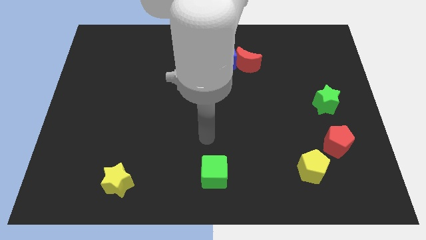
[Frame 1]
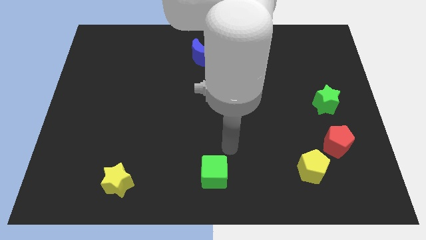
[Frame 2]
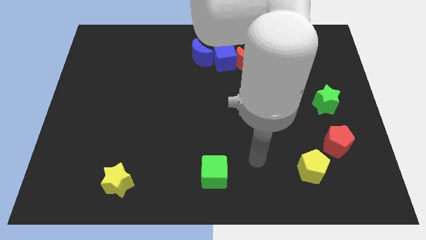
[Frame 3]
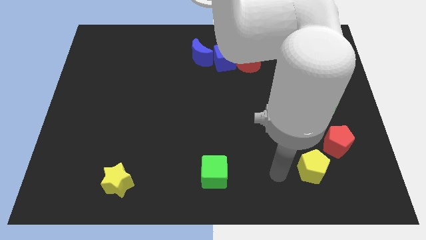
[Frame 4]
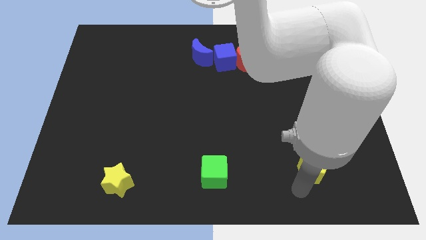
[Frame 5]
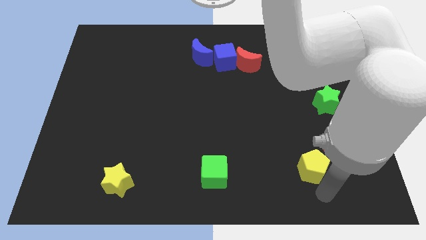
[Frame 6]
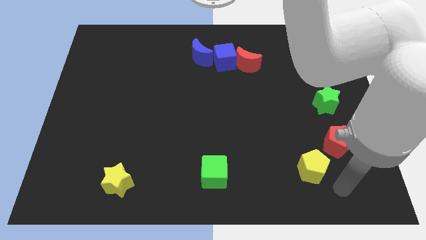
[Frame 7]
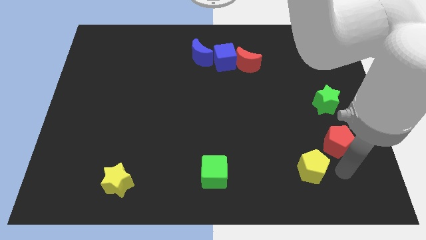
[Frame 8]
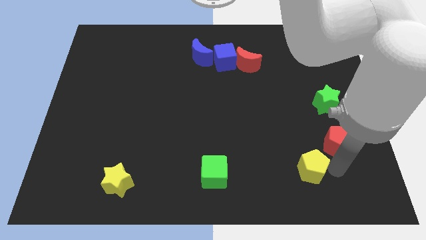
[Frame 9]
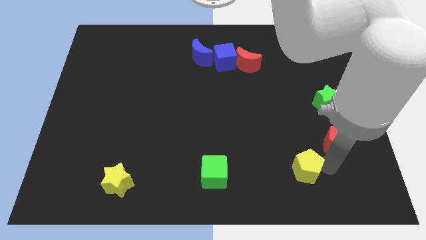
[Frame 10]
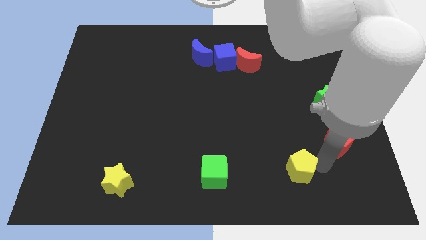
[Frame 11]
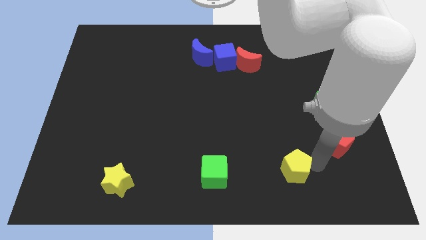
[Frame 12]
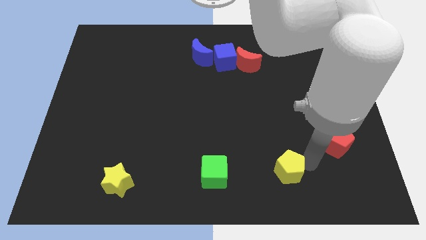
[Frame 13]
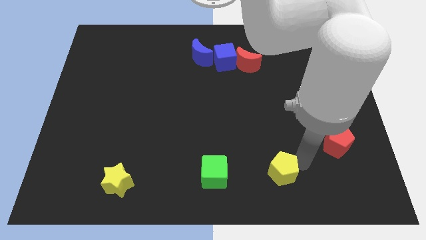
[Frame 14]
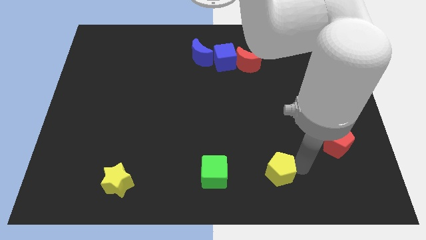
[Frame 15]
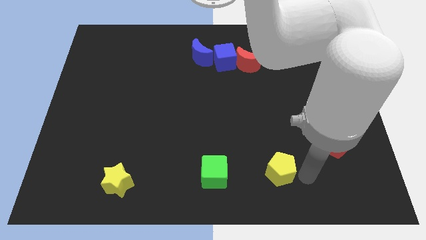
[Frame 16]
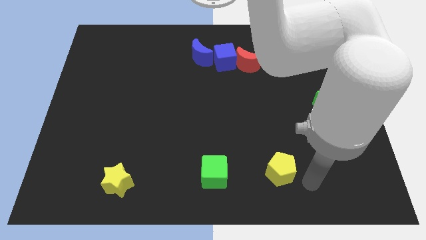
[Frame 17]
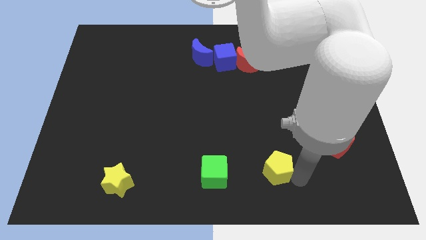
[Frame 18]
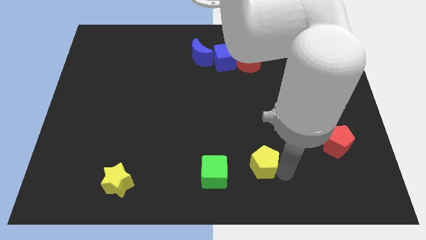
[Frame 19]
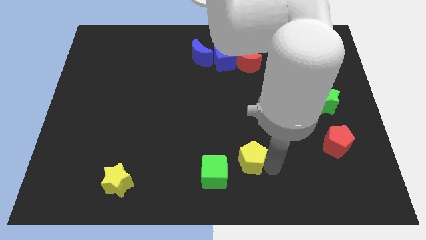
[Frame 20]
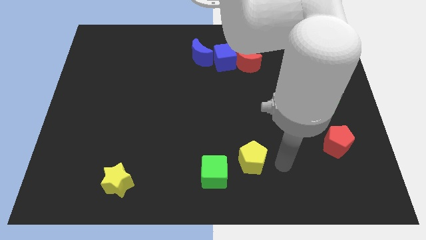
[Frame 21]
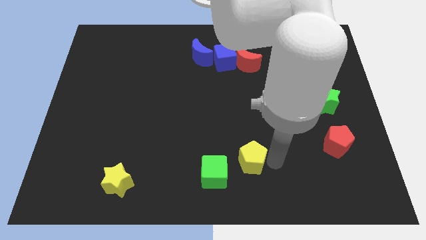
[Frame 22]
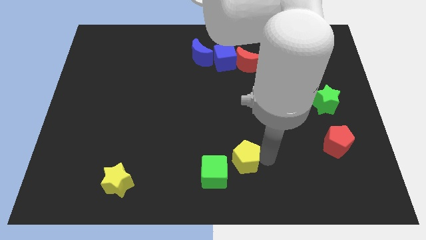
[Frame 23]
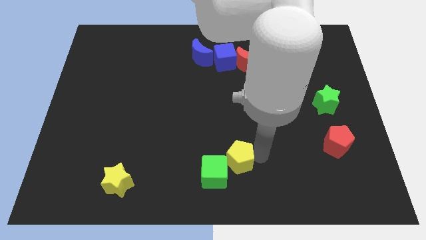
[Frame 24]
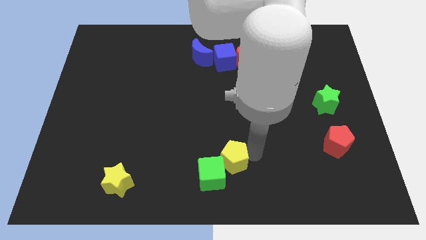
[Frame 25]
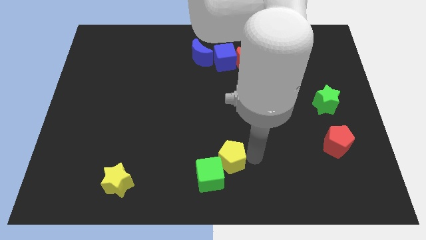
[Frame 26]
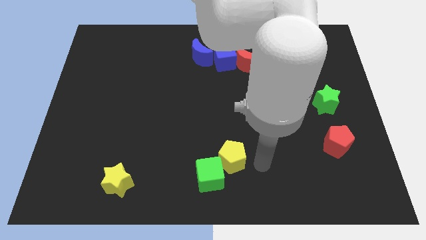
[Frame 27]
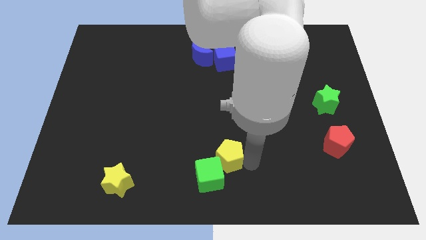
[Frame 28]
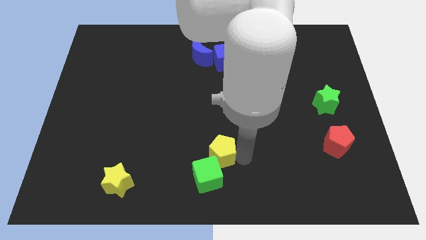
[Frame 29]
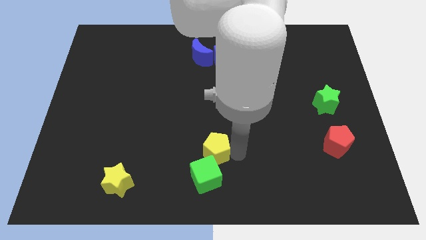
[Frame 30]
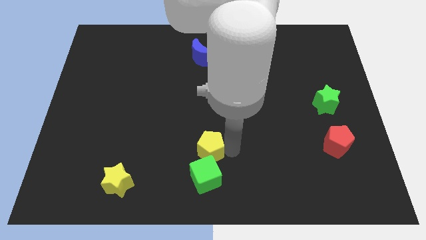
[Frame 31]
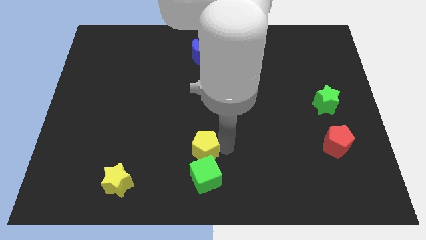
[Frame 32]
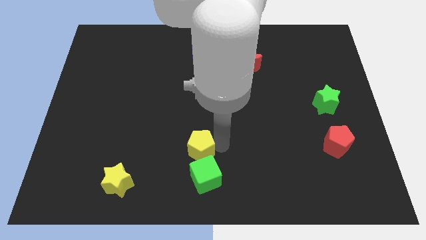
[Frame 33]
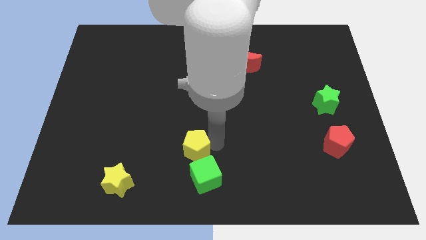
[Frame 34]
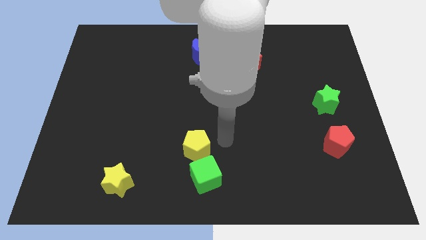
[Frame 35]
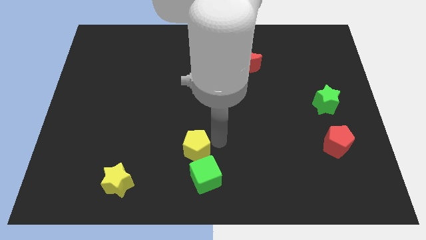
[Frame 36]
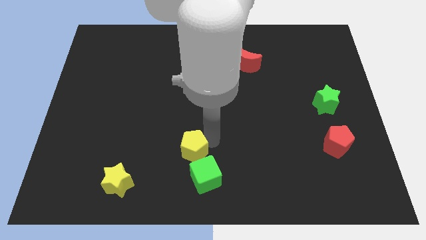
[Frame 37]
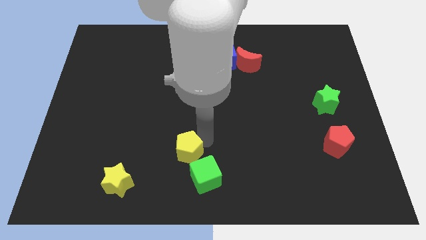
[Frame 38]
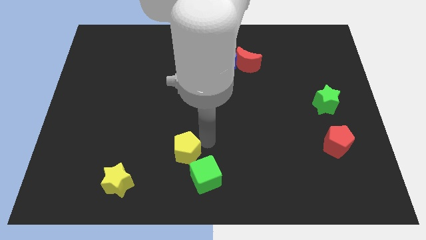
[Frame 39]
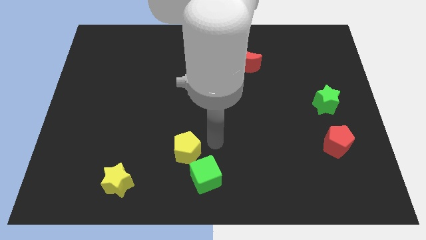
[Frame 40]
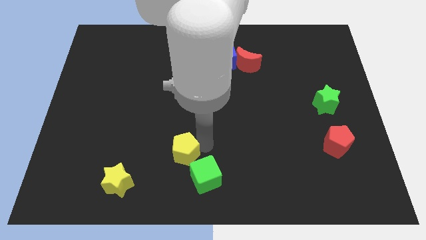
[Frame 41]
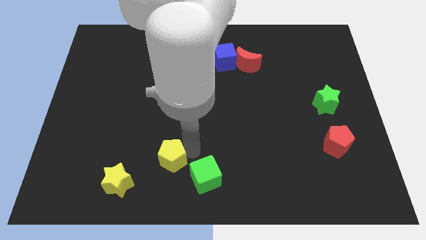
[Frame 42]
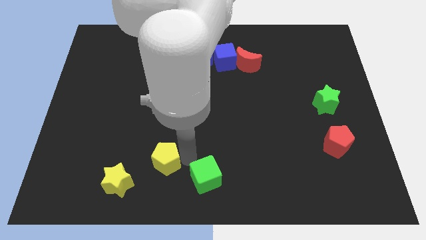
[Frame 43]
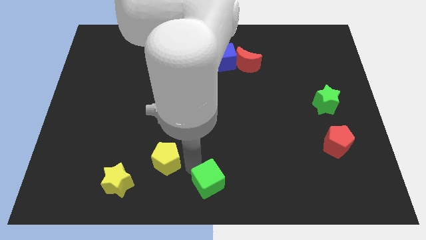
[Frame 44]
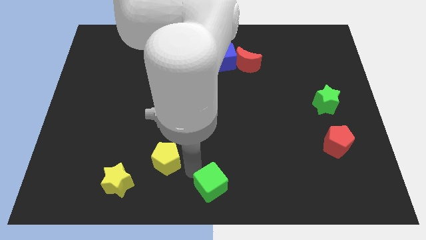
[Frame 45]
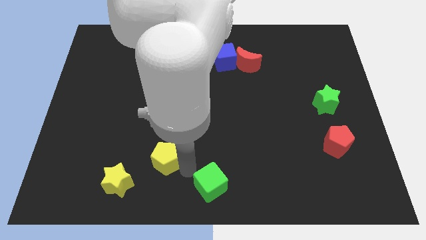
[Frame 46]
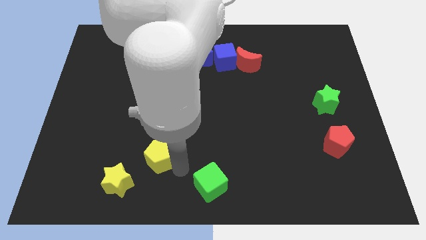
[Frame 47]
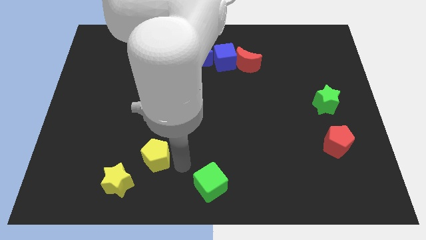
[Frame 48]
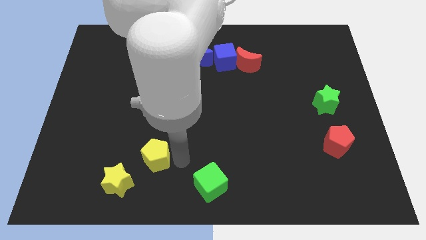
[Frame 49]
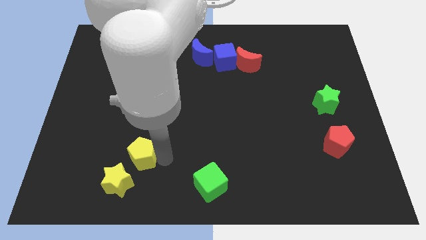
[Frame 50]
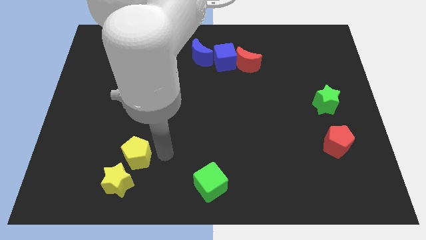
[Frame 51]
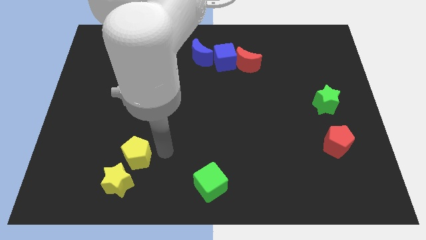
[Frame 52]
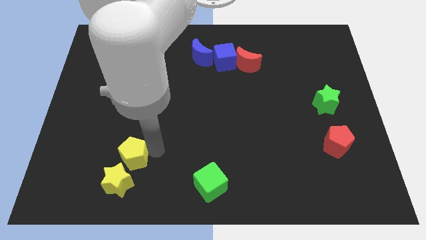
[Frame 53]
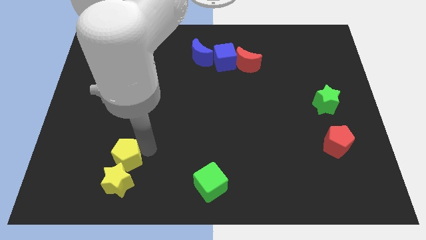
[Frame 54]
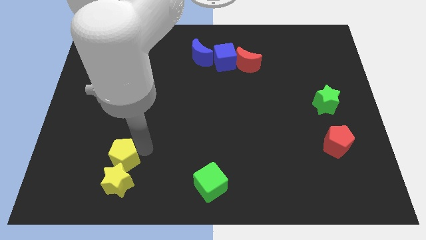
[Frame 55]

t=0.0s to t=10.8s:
move the yellow pentagon to the top left side of the yellow star

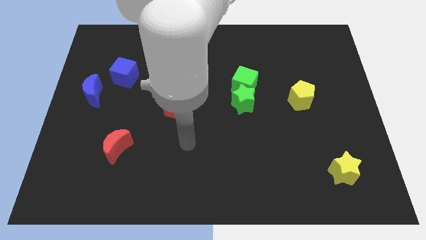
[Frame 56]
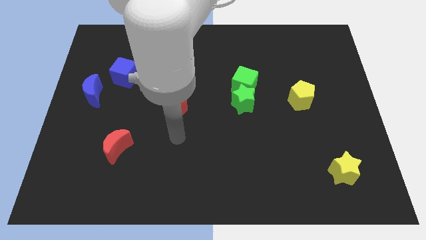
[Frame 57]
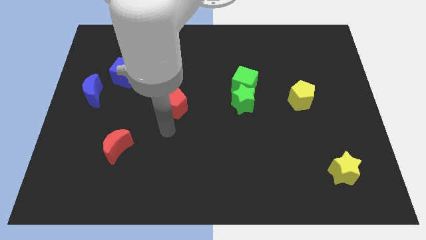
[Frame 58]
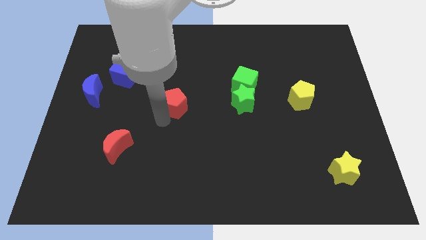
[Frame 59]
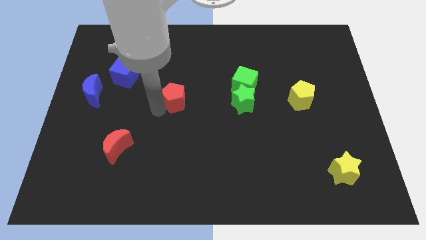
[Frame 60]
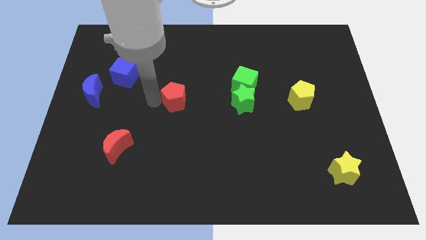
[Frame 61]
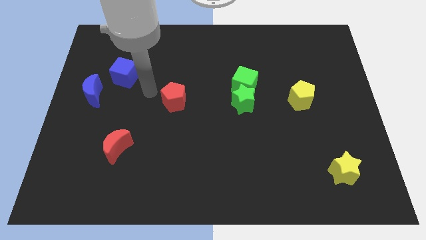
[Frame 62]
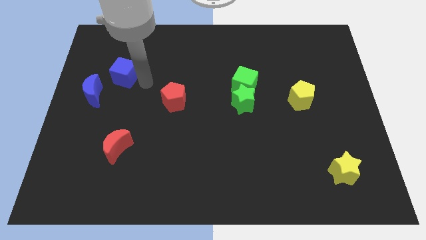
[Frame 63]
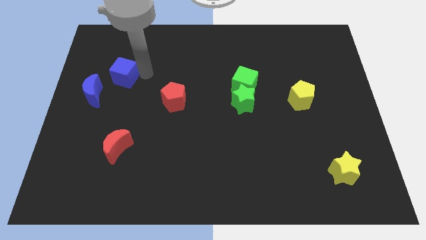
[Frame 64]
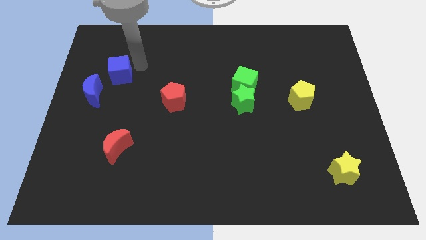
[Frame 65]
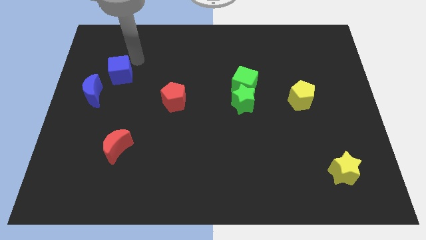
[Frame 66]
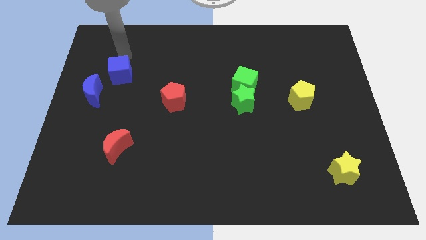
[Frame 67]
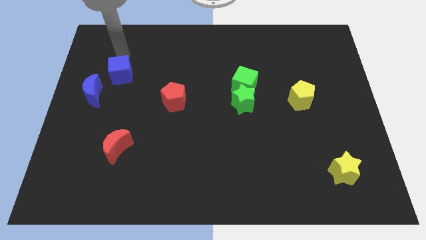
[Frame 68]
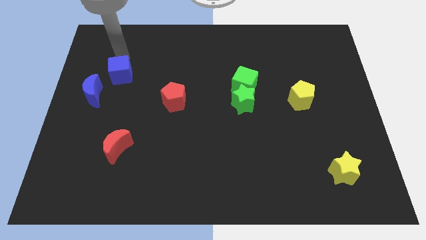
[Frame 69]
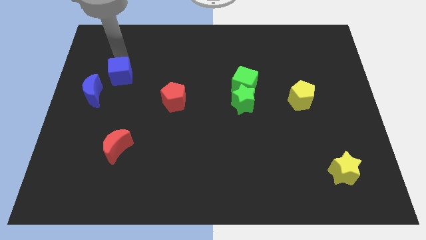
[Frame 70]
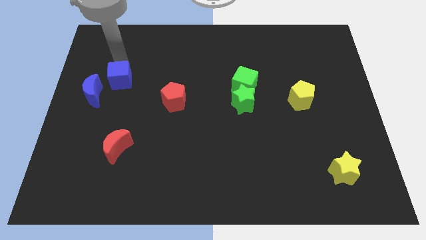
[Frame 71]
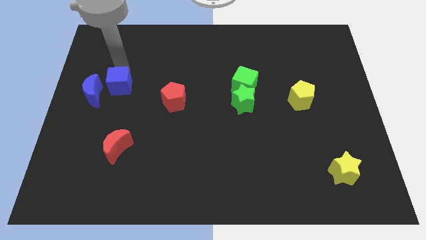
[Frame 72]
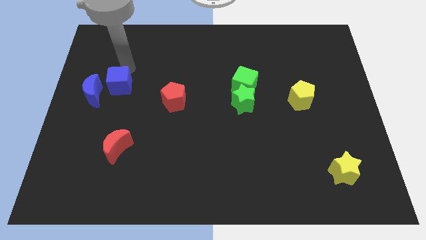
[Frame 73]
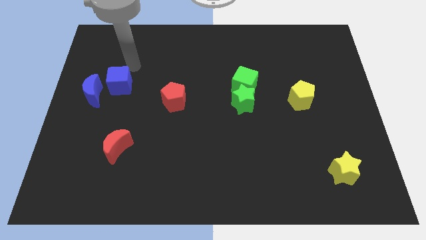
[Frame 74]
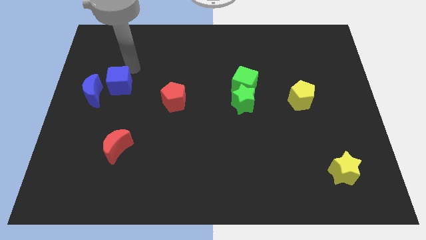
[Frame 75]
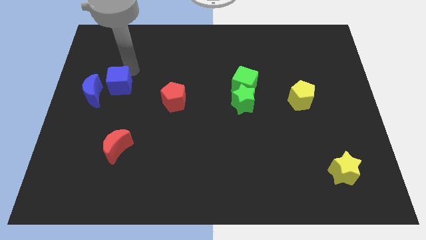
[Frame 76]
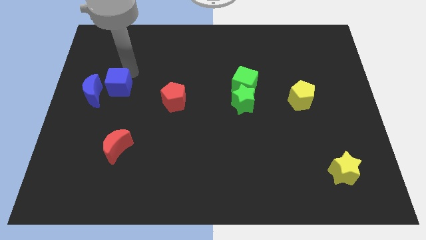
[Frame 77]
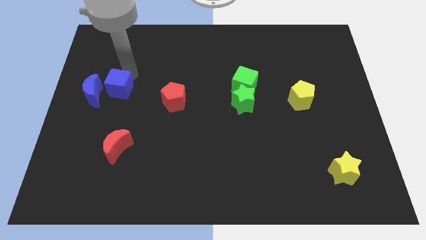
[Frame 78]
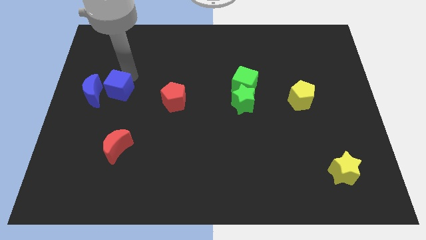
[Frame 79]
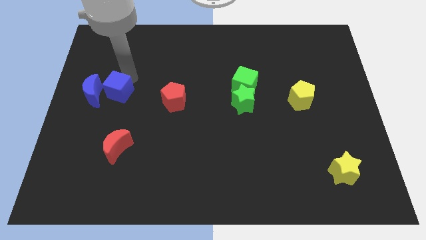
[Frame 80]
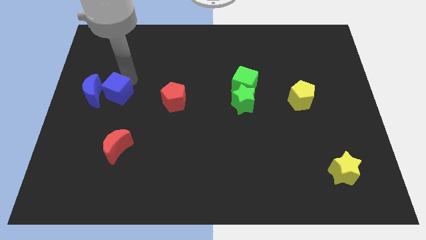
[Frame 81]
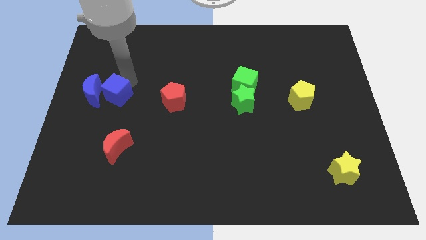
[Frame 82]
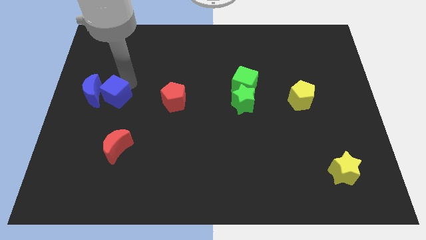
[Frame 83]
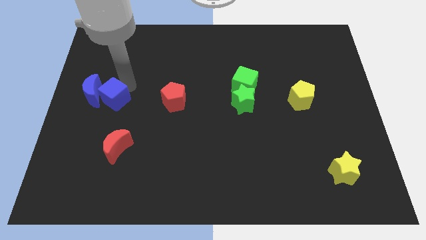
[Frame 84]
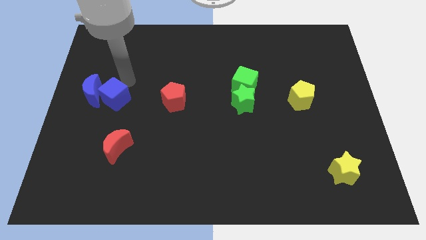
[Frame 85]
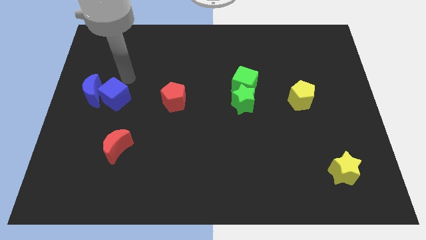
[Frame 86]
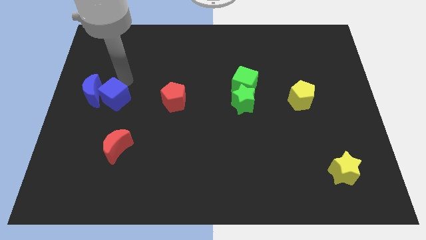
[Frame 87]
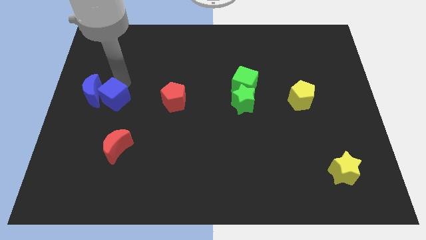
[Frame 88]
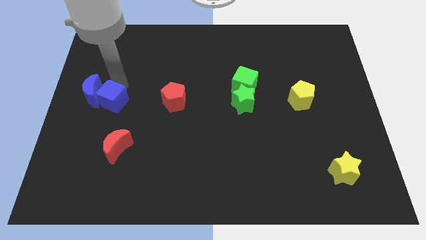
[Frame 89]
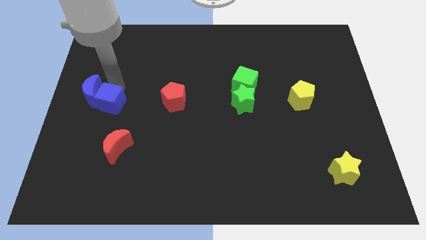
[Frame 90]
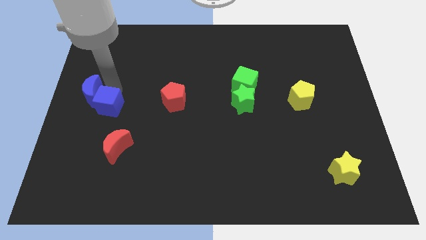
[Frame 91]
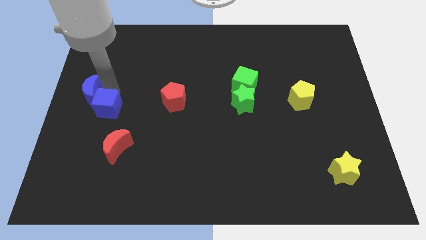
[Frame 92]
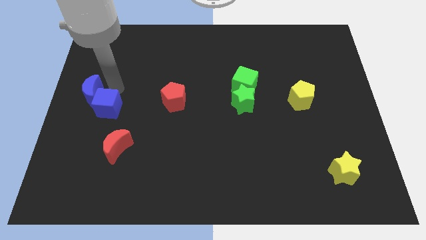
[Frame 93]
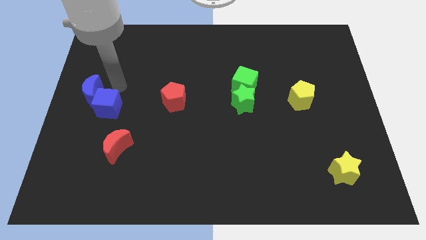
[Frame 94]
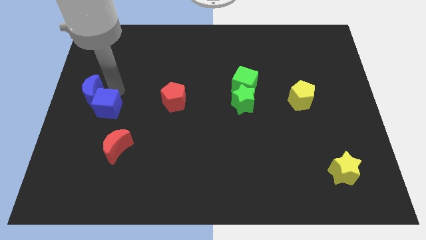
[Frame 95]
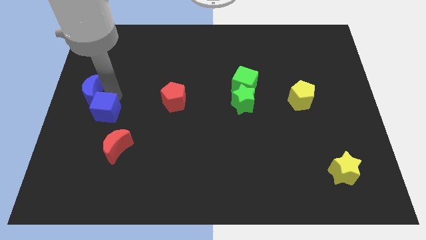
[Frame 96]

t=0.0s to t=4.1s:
slide the blue cube diagonally up and to the left of the red moon
